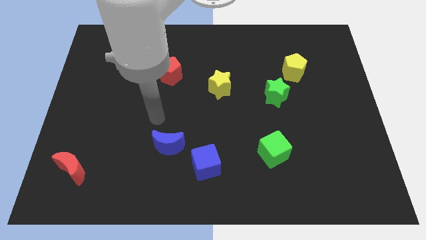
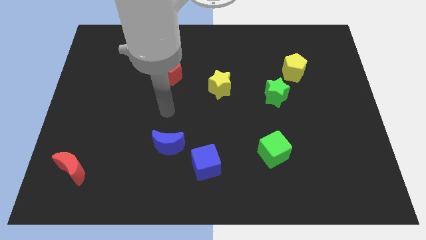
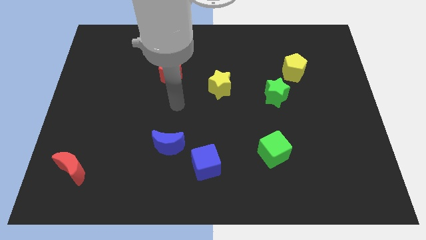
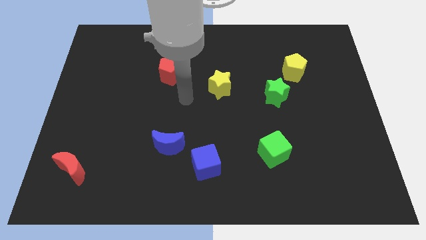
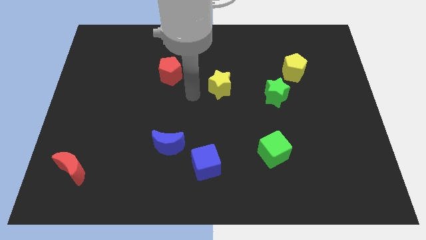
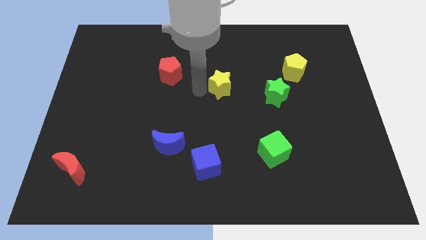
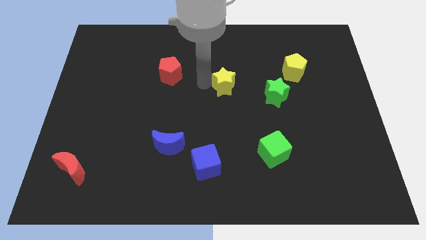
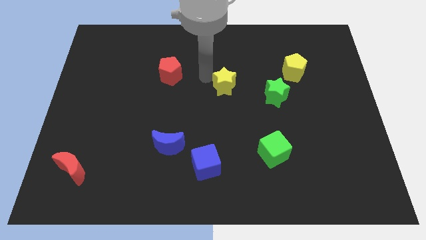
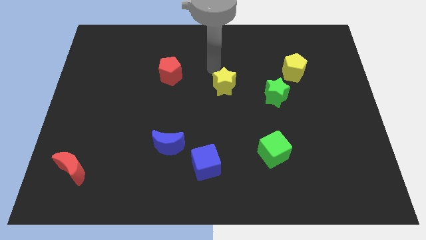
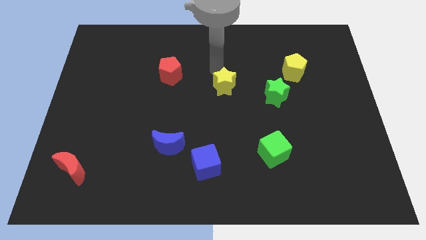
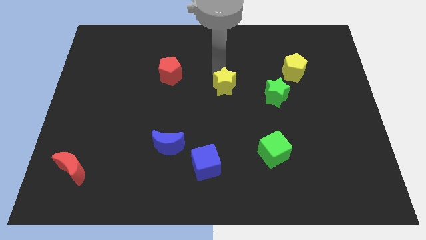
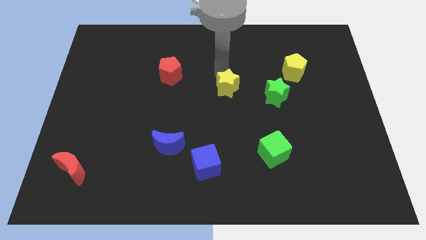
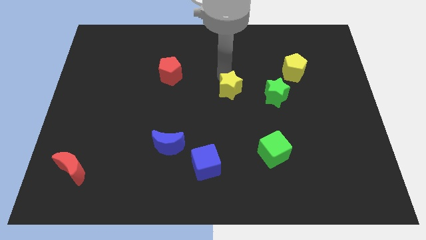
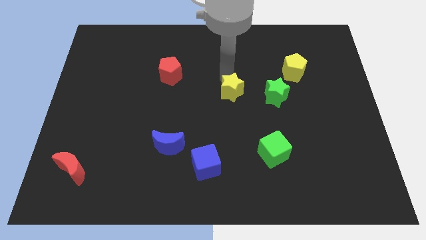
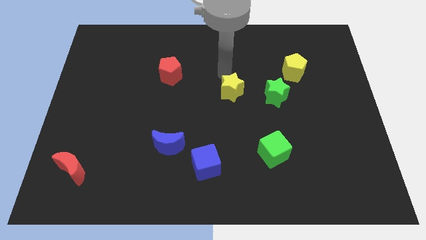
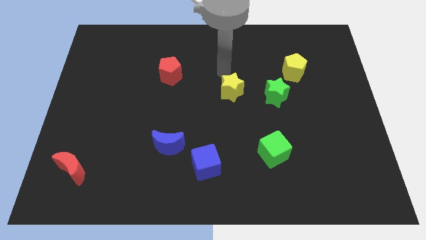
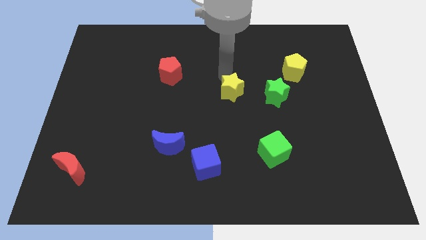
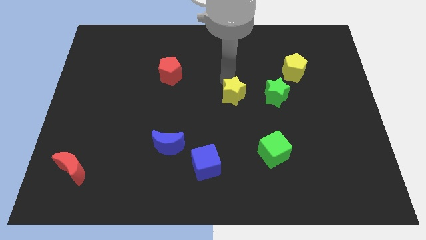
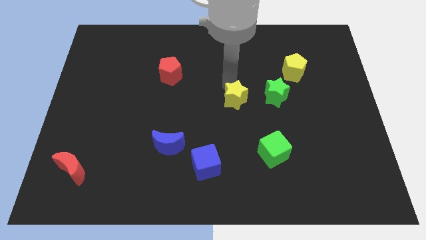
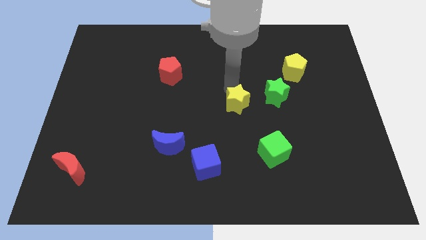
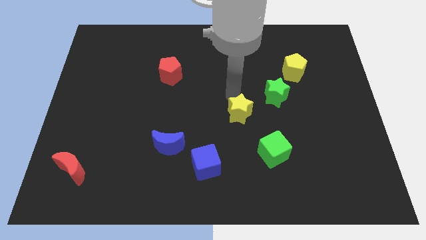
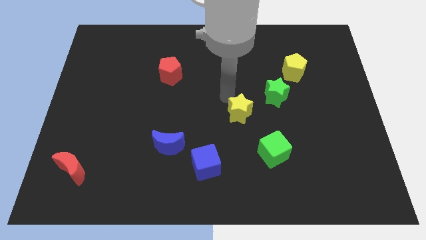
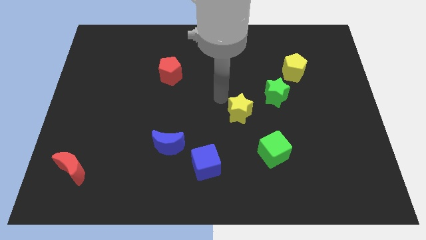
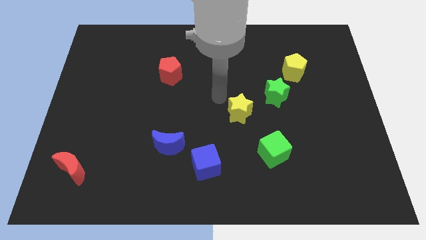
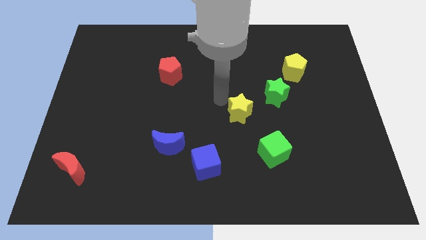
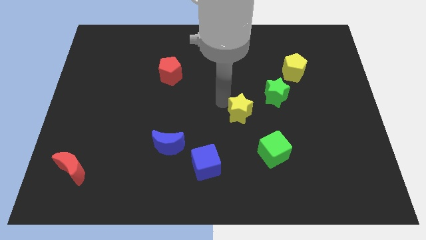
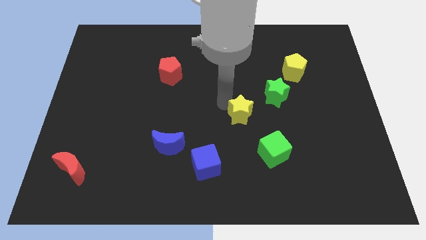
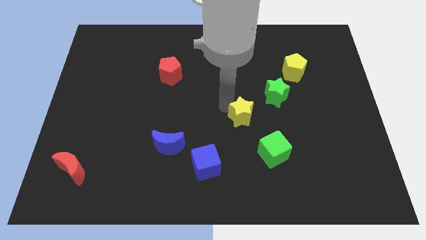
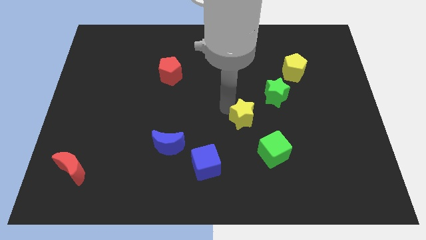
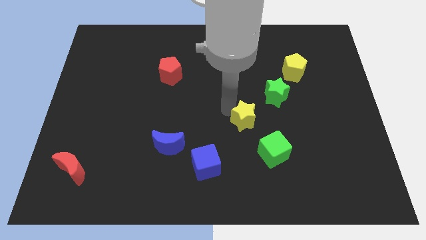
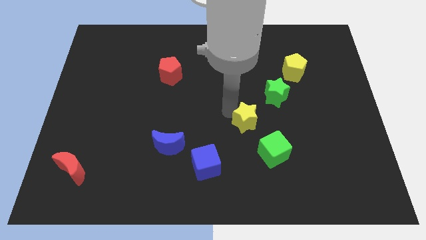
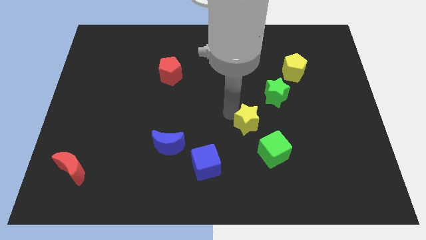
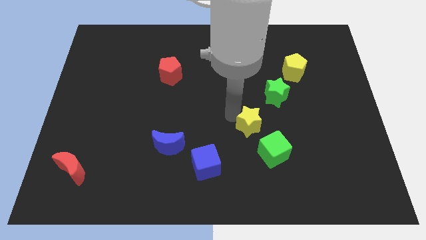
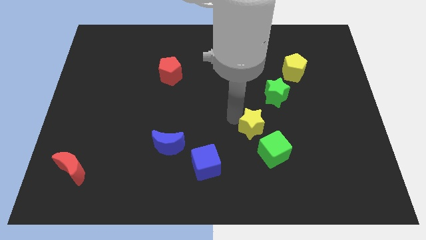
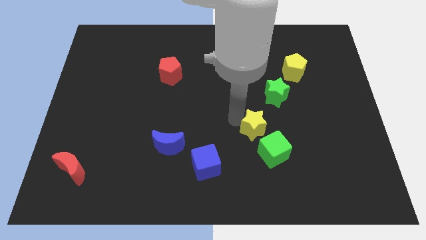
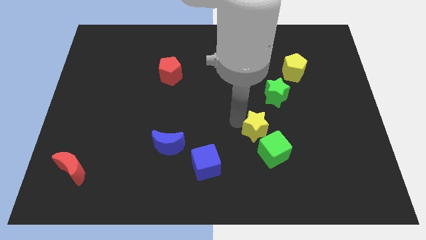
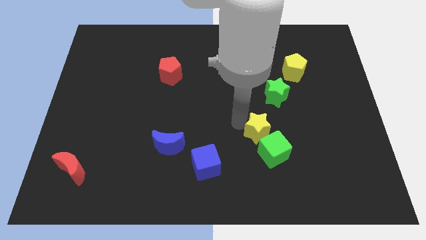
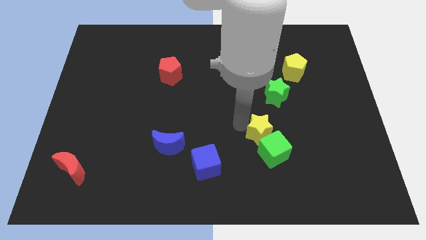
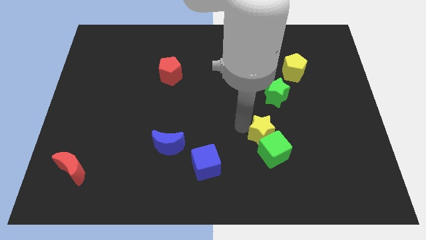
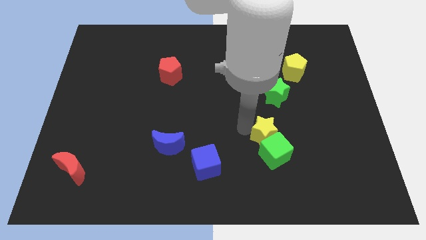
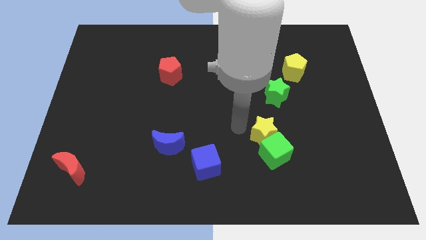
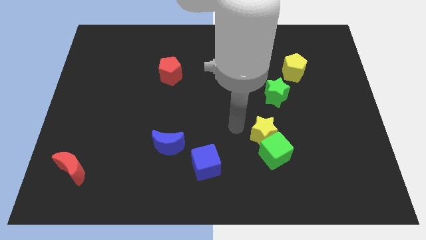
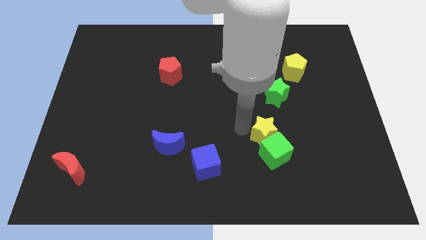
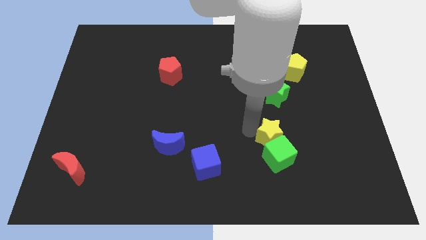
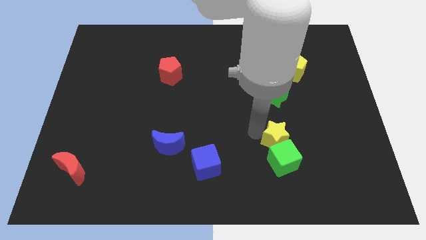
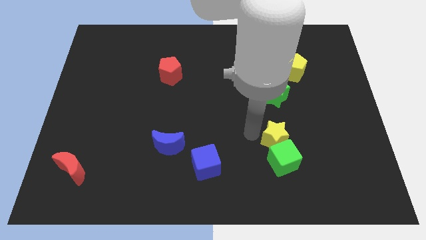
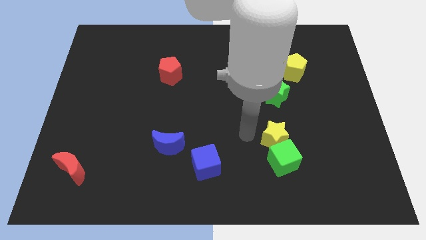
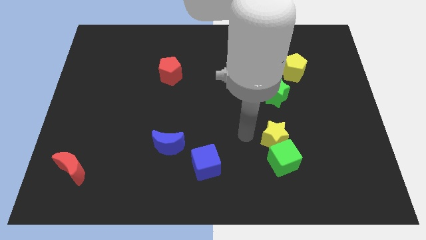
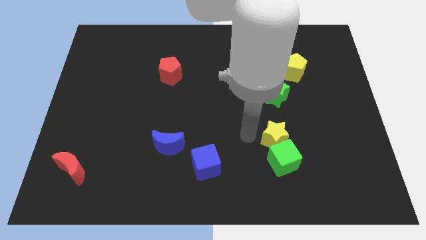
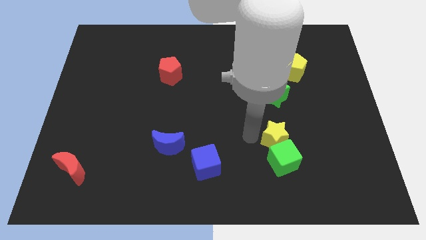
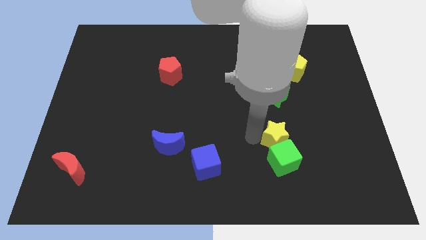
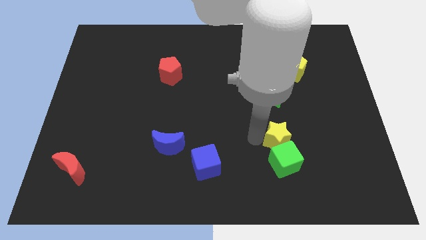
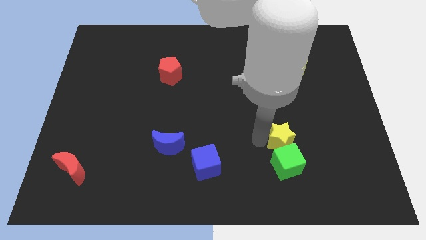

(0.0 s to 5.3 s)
push the yellow star down and right

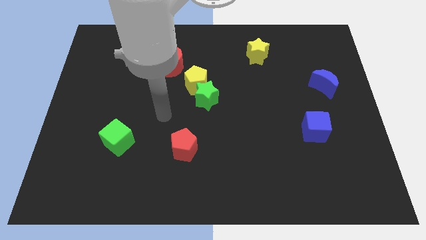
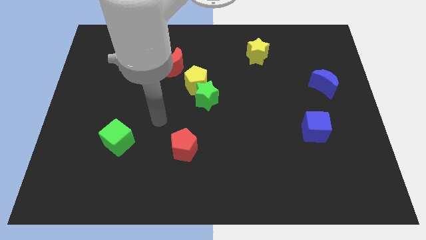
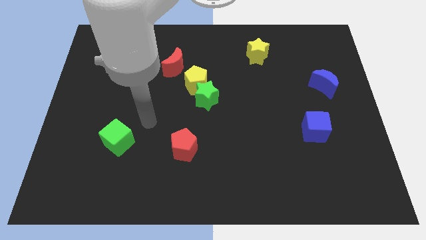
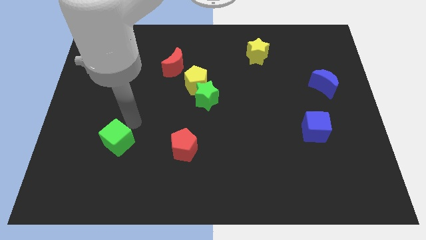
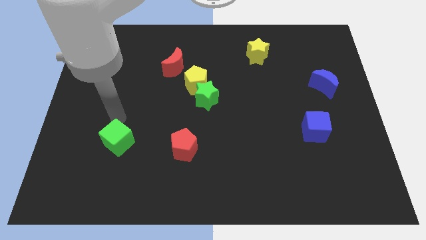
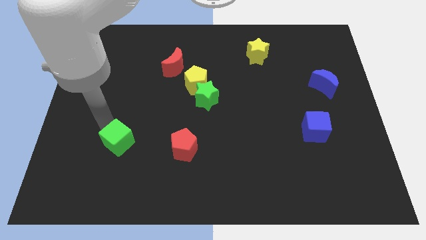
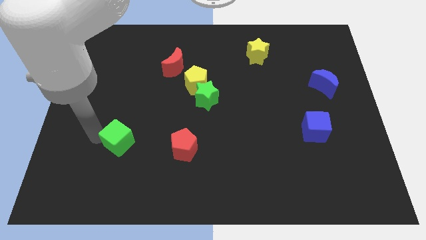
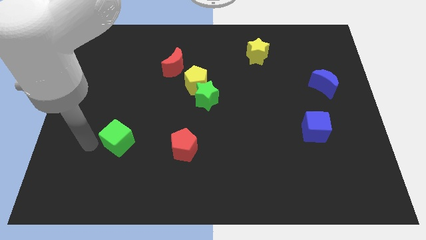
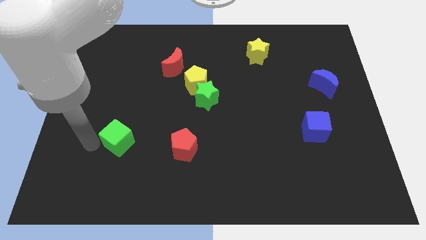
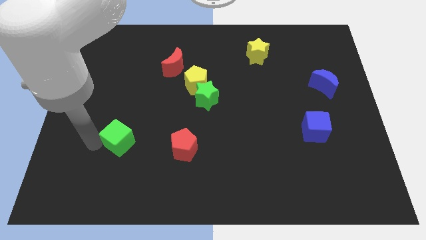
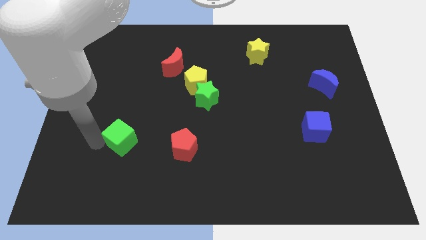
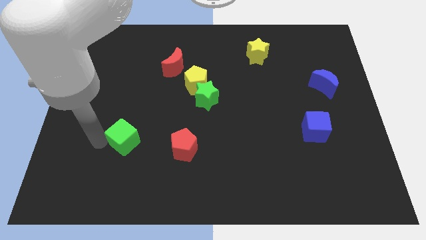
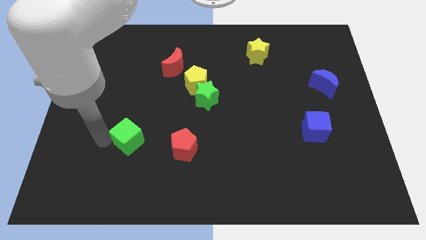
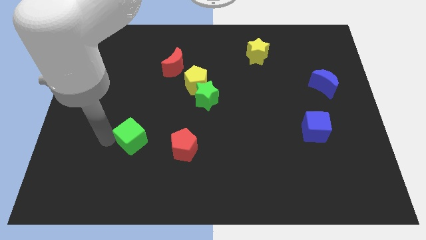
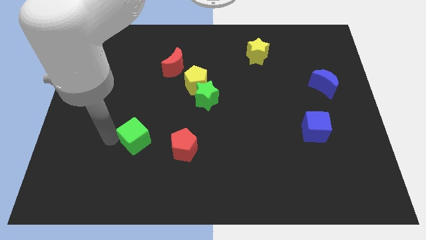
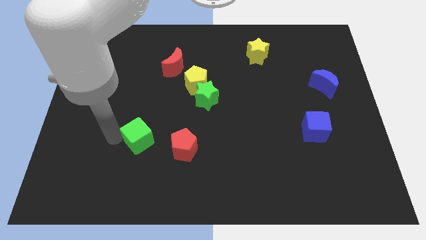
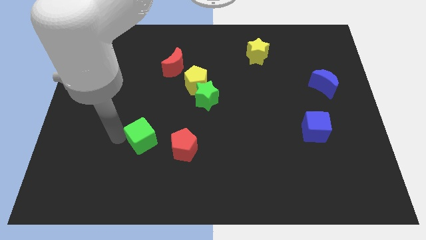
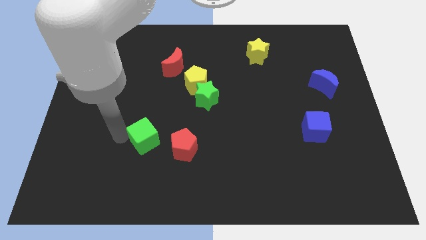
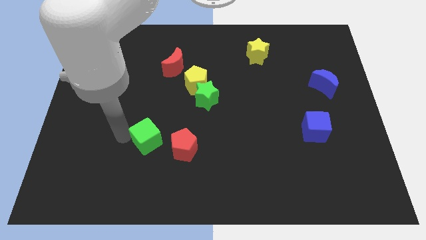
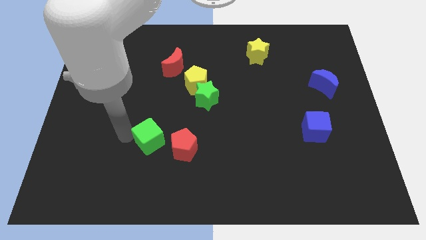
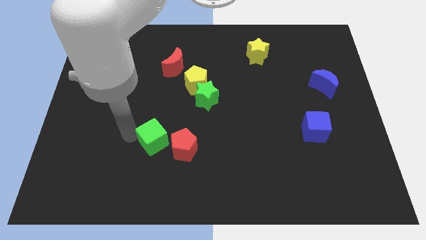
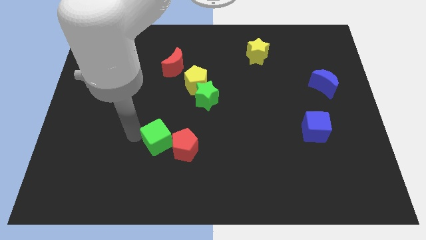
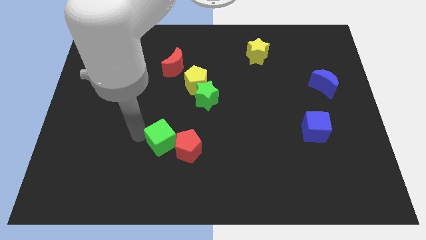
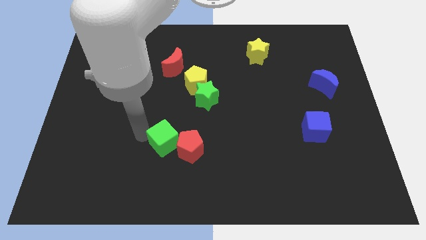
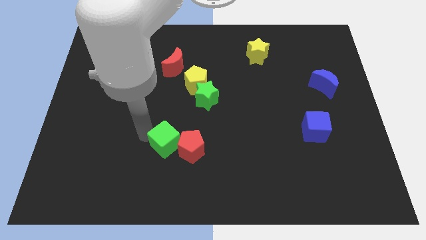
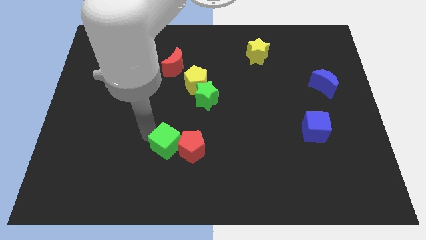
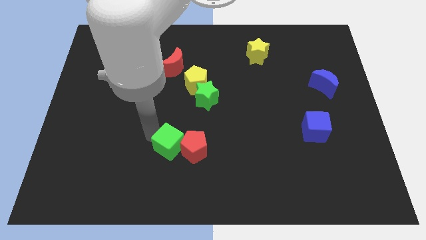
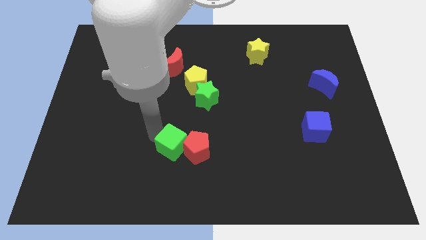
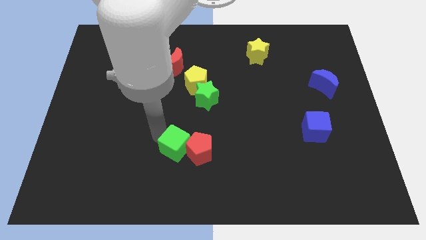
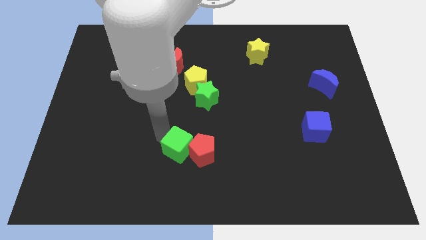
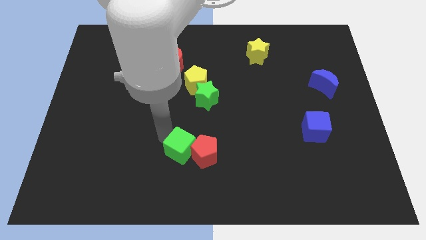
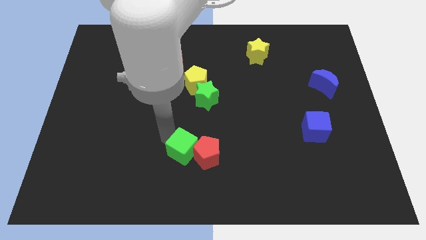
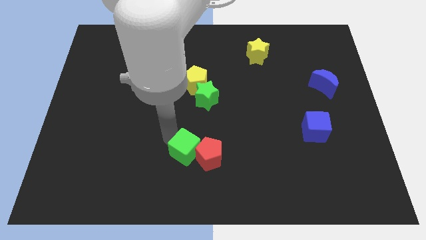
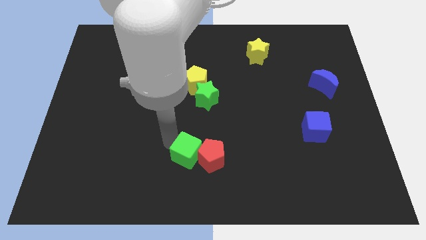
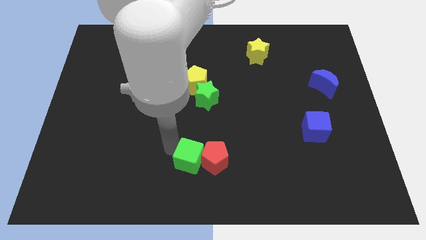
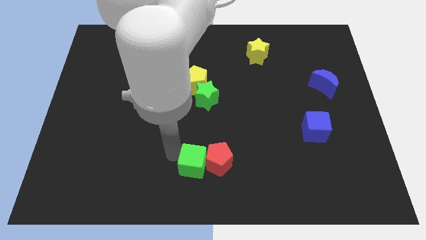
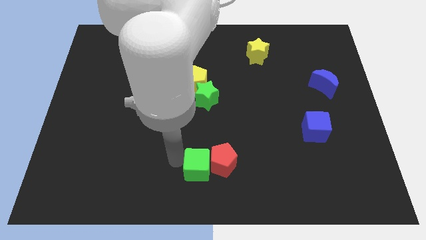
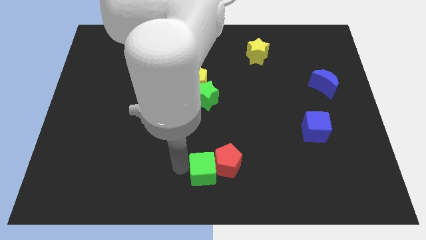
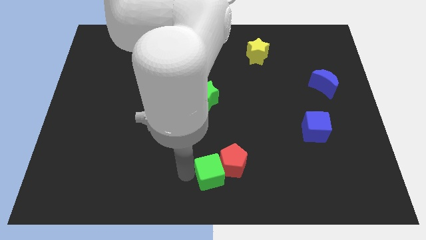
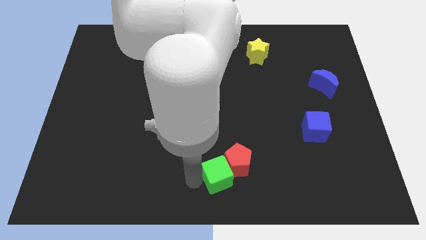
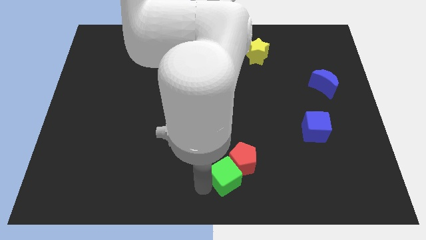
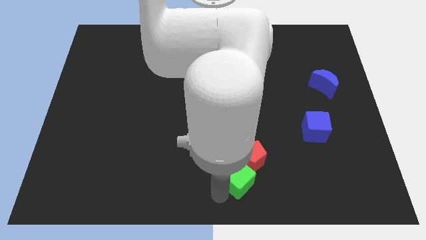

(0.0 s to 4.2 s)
move the green cube right
